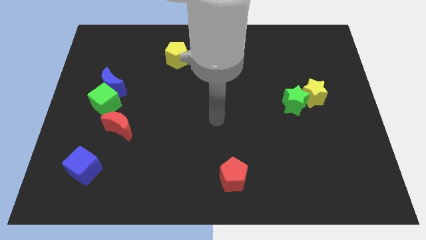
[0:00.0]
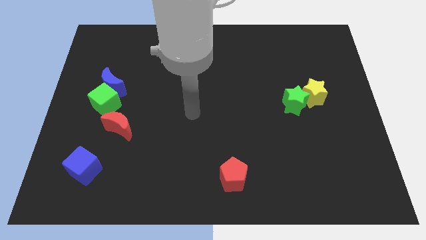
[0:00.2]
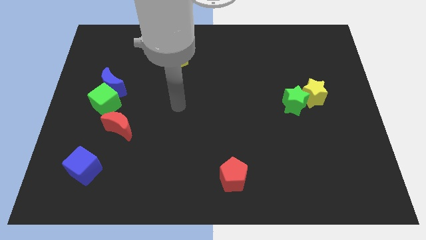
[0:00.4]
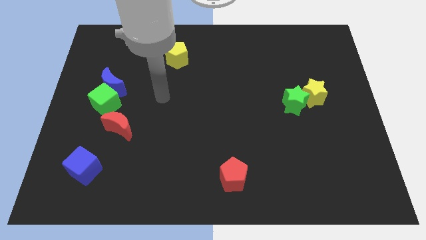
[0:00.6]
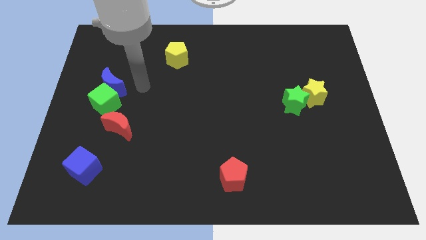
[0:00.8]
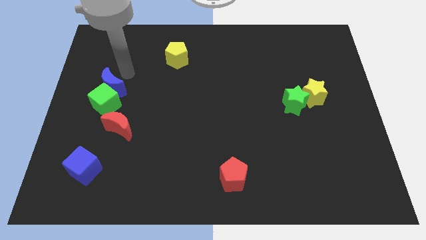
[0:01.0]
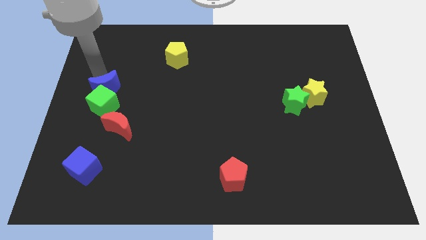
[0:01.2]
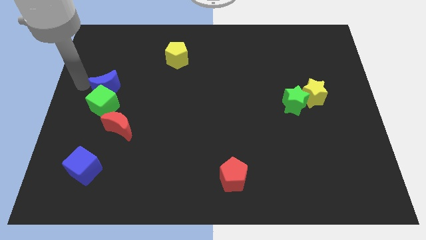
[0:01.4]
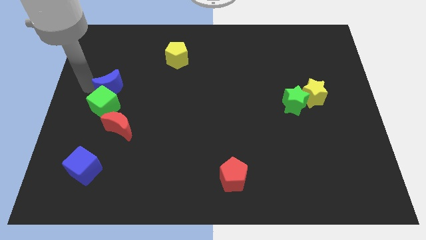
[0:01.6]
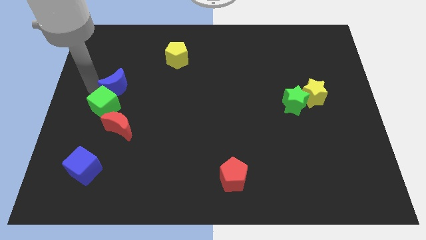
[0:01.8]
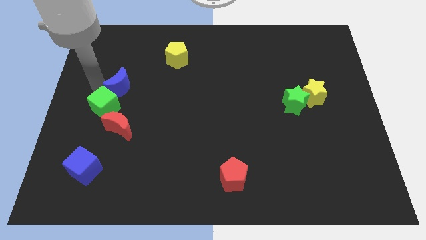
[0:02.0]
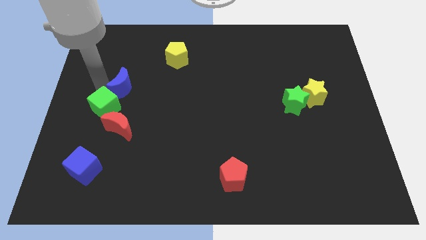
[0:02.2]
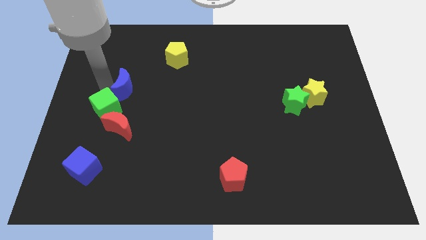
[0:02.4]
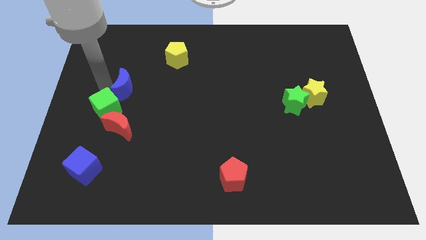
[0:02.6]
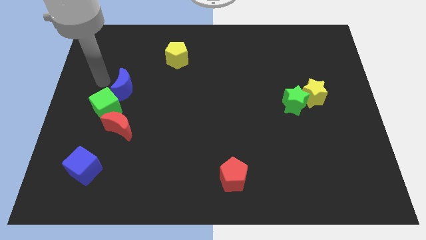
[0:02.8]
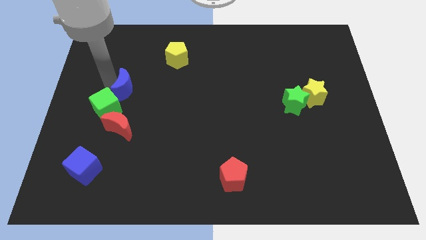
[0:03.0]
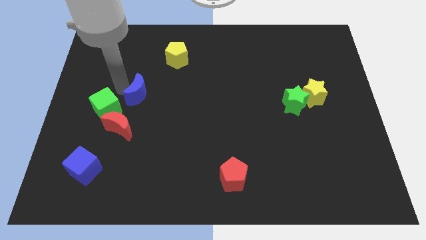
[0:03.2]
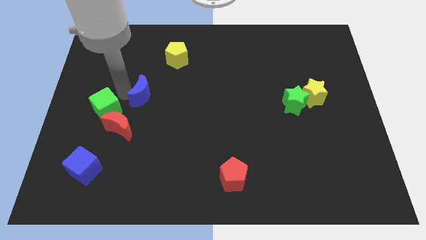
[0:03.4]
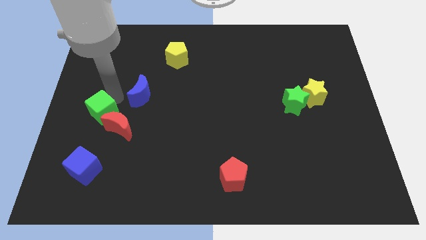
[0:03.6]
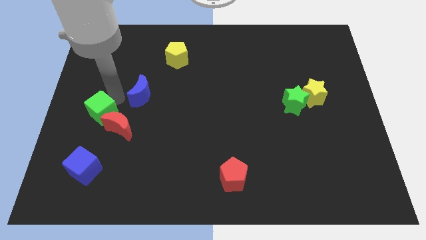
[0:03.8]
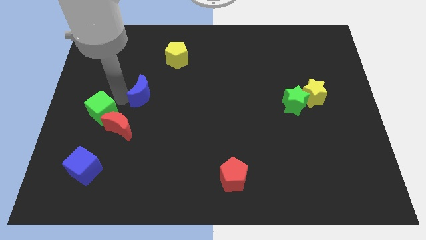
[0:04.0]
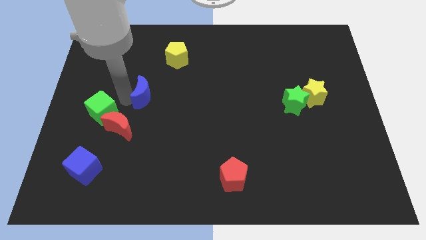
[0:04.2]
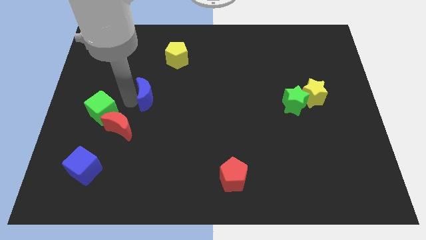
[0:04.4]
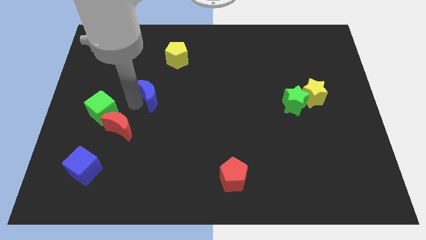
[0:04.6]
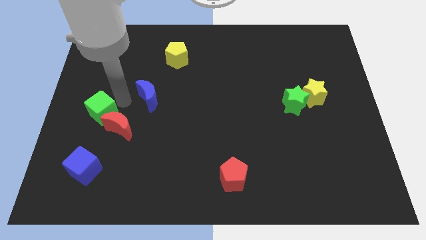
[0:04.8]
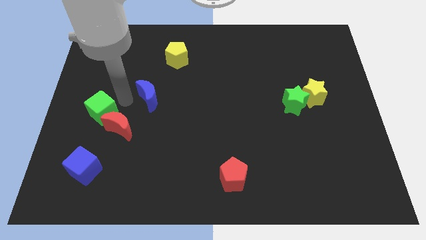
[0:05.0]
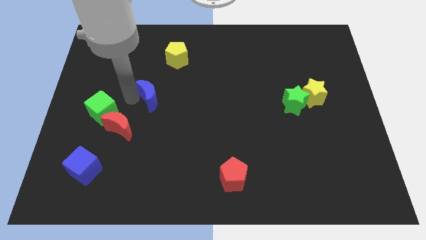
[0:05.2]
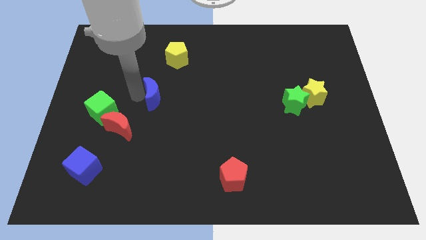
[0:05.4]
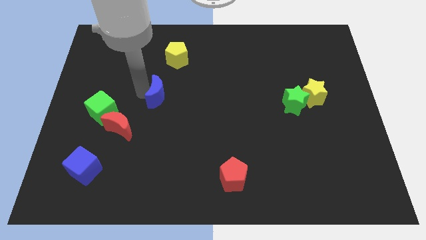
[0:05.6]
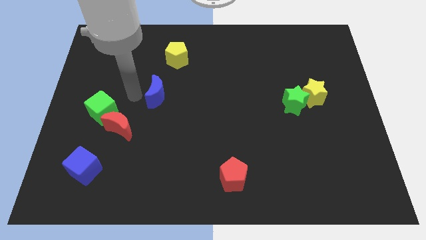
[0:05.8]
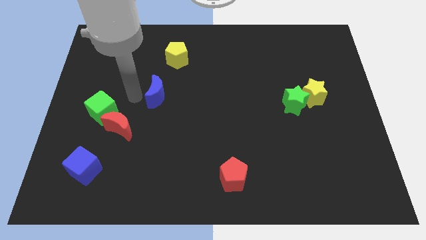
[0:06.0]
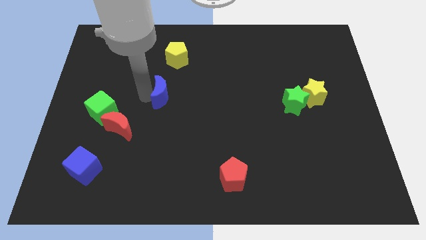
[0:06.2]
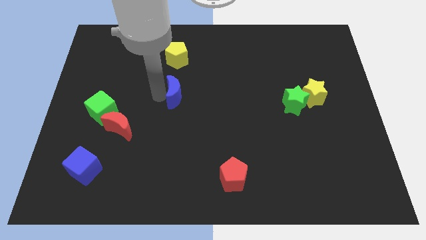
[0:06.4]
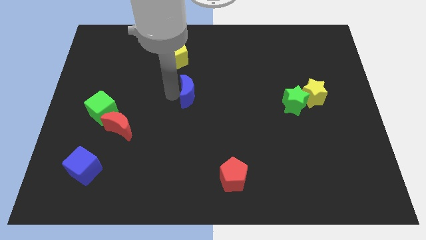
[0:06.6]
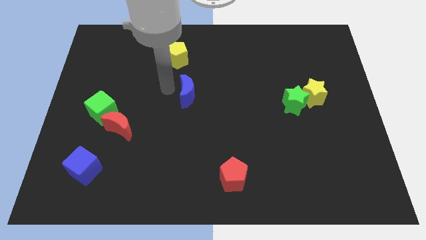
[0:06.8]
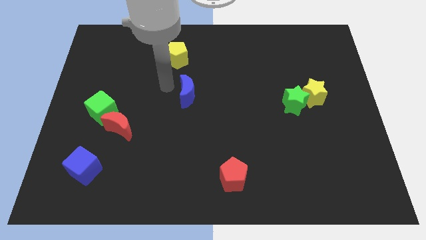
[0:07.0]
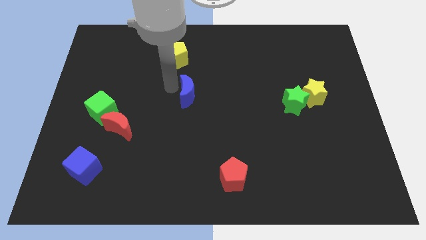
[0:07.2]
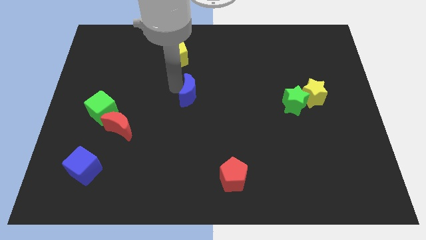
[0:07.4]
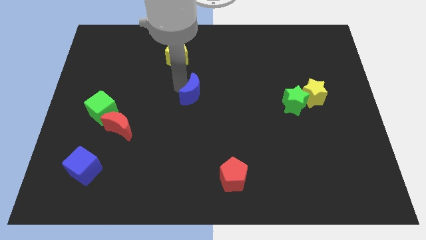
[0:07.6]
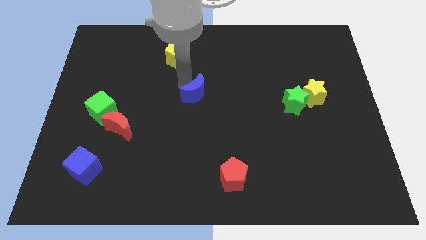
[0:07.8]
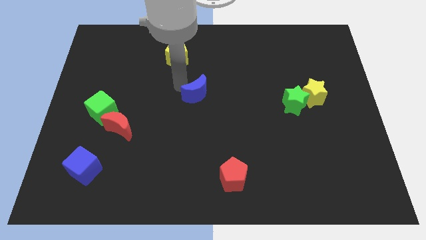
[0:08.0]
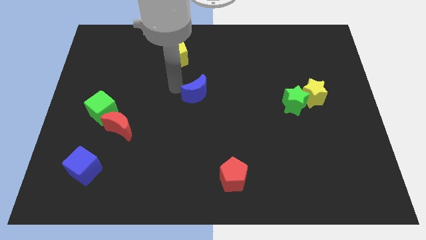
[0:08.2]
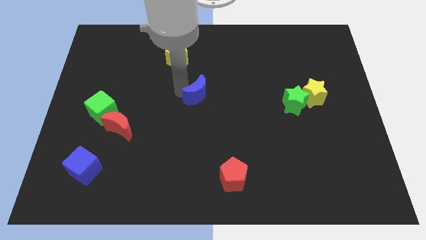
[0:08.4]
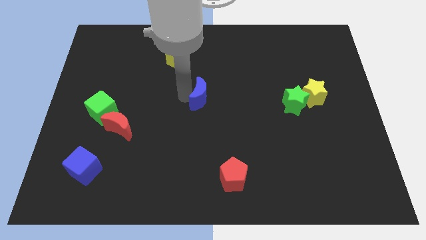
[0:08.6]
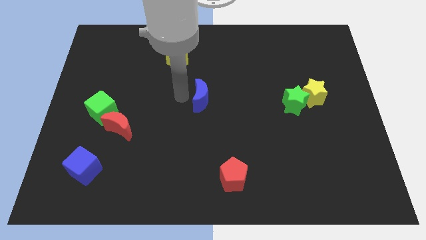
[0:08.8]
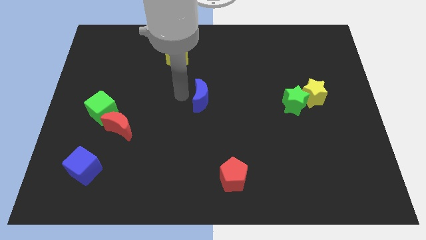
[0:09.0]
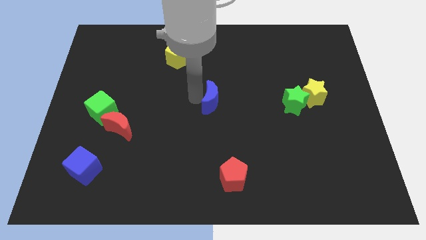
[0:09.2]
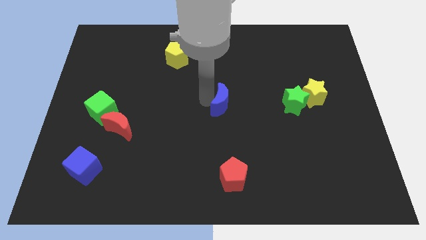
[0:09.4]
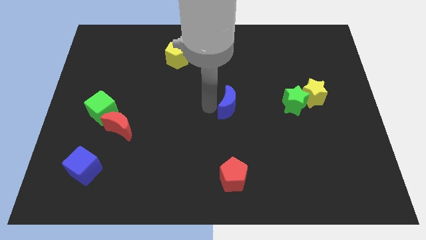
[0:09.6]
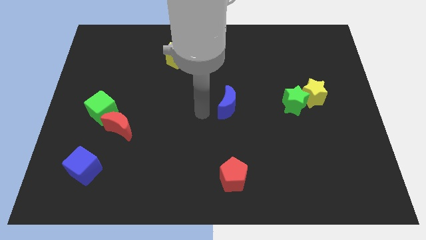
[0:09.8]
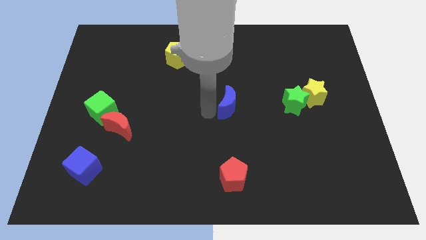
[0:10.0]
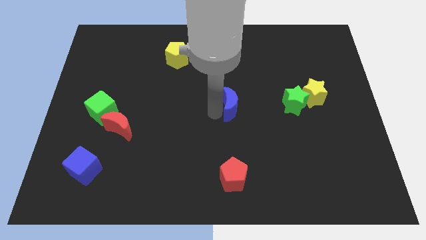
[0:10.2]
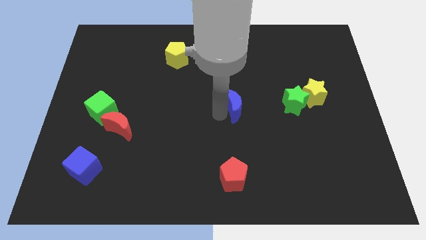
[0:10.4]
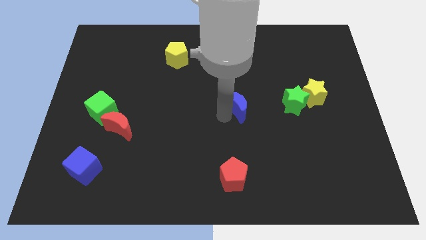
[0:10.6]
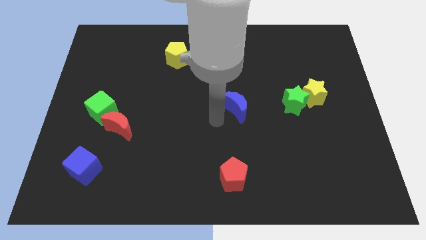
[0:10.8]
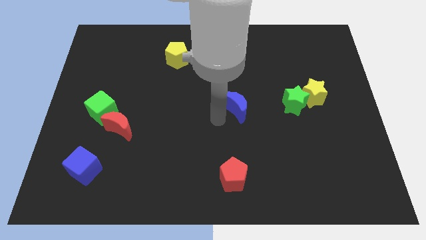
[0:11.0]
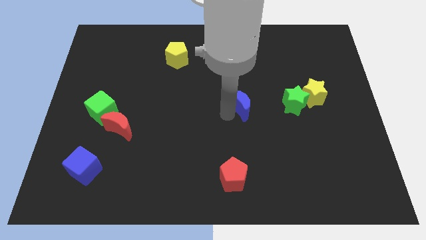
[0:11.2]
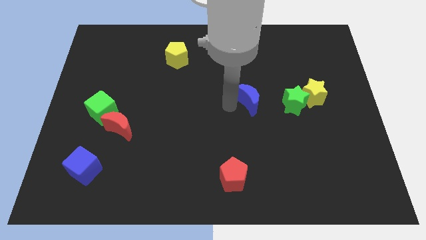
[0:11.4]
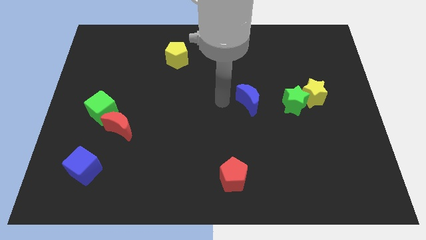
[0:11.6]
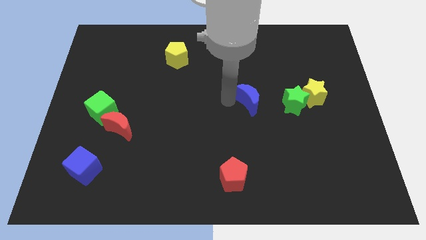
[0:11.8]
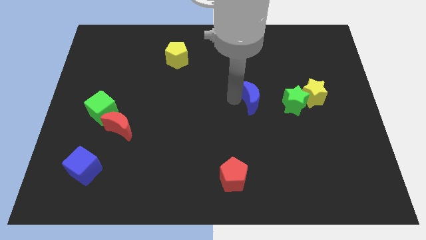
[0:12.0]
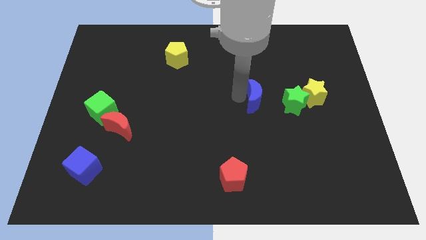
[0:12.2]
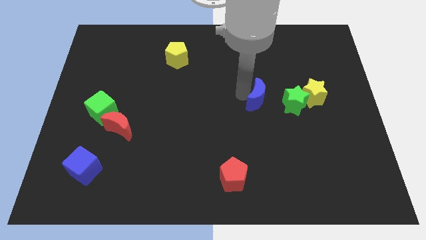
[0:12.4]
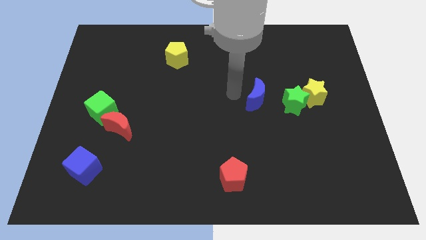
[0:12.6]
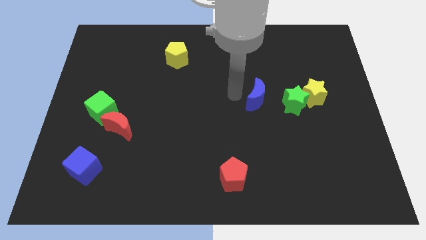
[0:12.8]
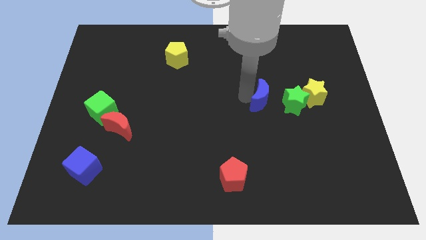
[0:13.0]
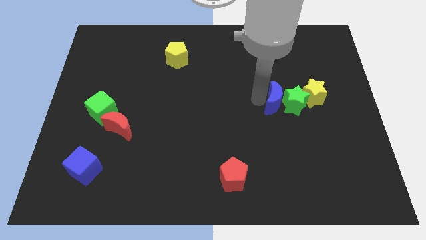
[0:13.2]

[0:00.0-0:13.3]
move the blue moon to the green star

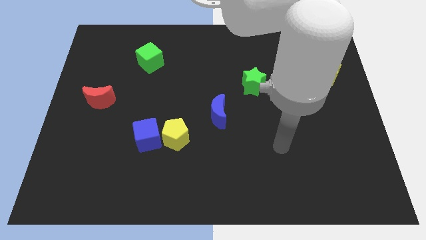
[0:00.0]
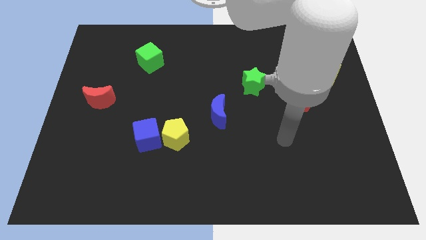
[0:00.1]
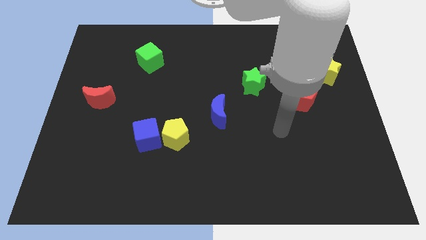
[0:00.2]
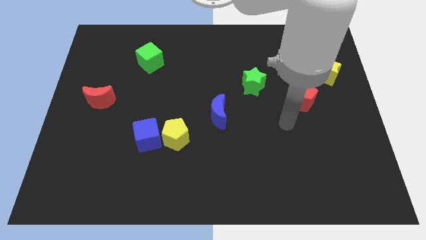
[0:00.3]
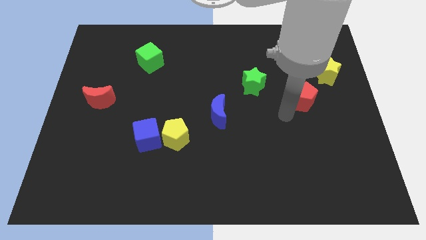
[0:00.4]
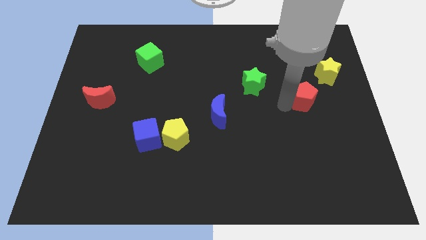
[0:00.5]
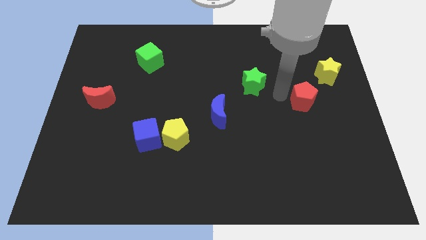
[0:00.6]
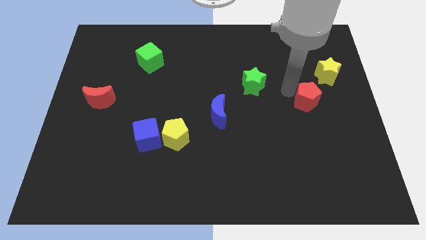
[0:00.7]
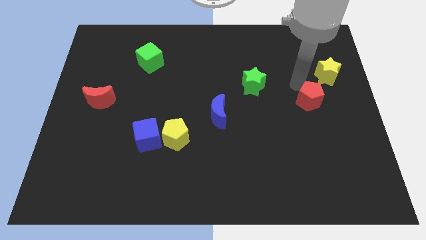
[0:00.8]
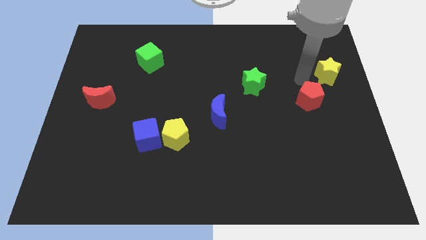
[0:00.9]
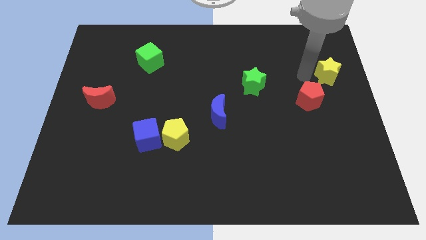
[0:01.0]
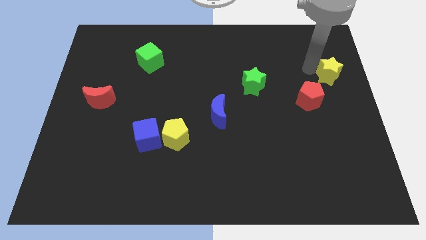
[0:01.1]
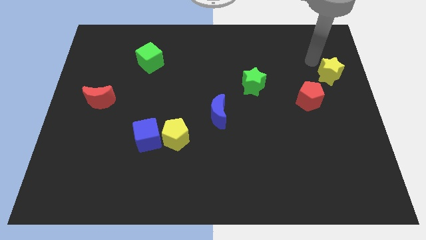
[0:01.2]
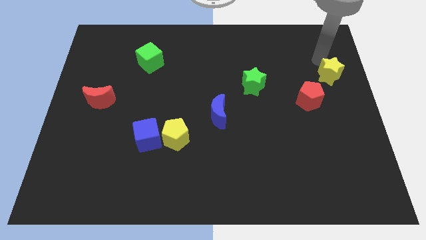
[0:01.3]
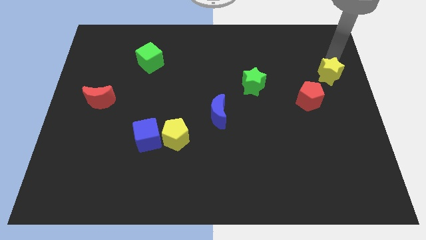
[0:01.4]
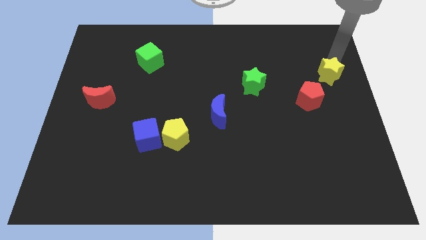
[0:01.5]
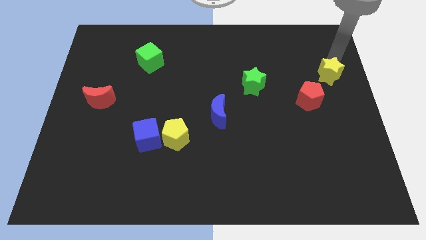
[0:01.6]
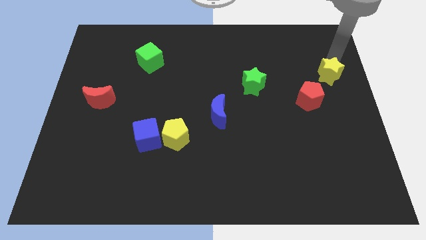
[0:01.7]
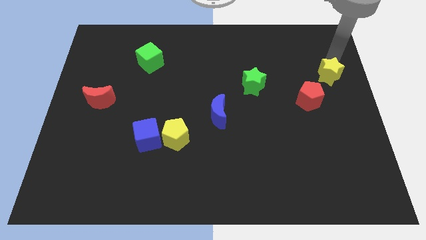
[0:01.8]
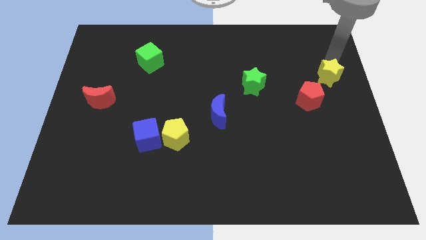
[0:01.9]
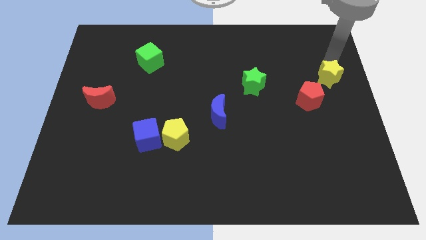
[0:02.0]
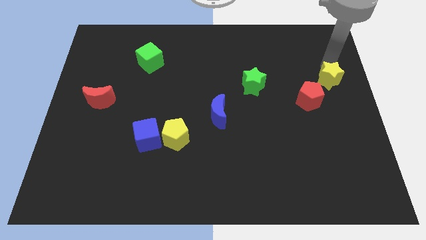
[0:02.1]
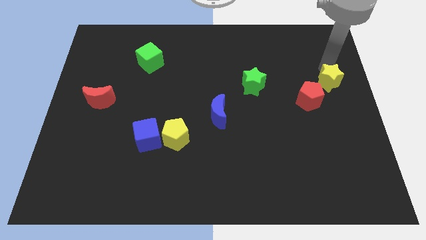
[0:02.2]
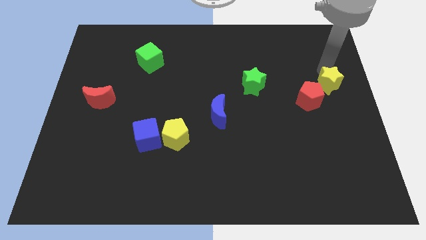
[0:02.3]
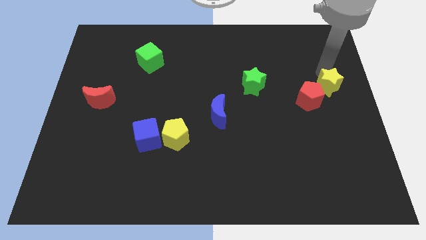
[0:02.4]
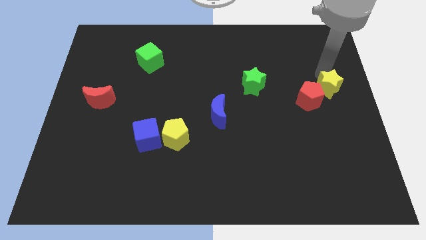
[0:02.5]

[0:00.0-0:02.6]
slide the yellow star next to the red pentagon
